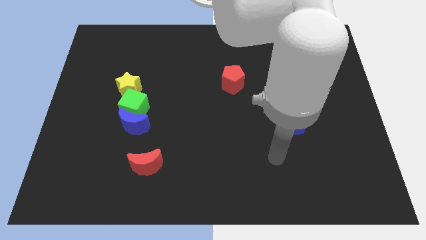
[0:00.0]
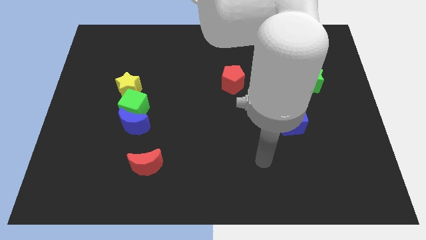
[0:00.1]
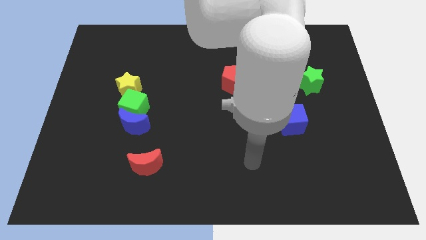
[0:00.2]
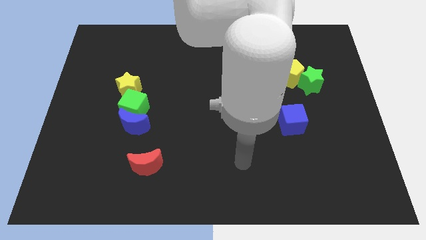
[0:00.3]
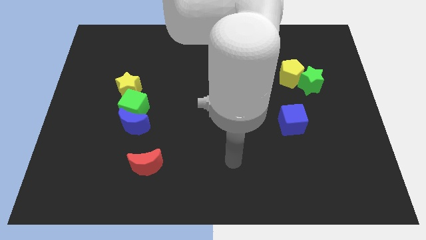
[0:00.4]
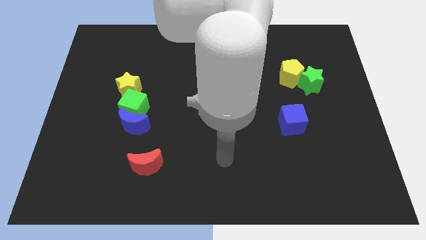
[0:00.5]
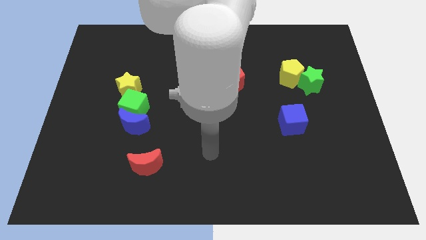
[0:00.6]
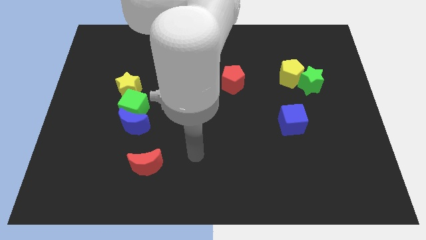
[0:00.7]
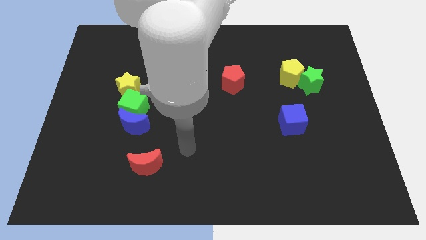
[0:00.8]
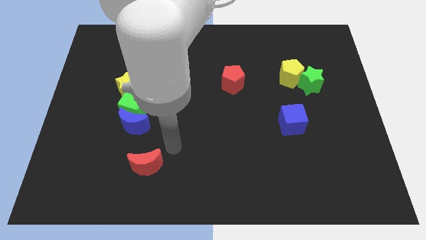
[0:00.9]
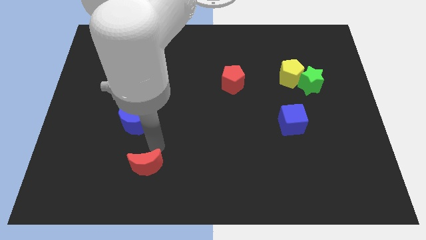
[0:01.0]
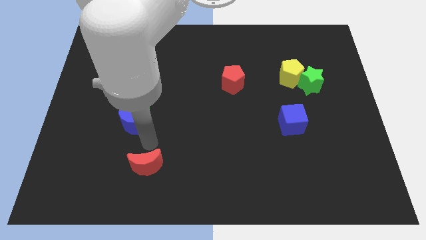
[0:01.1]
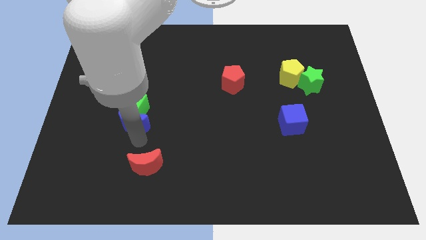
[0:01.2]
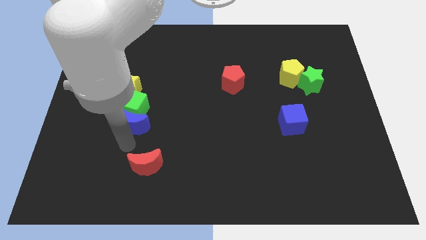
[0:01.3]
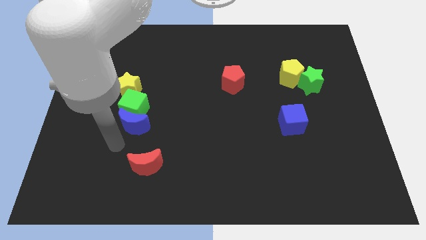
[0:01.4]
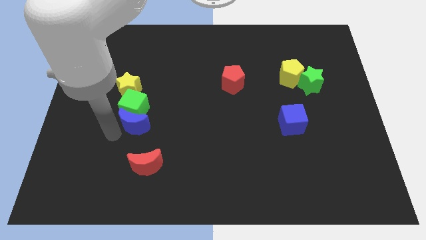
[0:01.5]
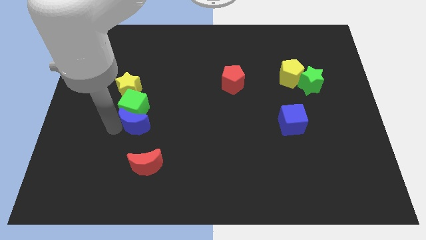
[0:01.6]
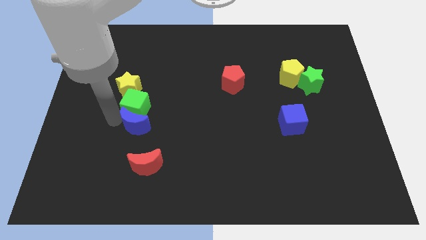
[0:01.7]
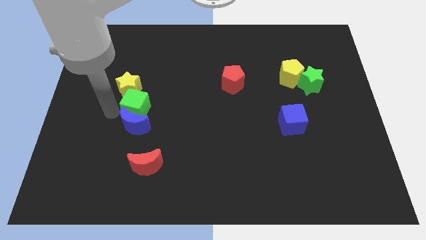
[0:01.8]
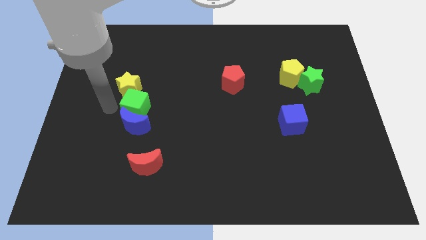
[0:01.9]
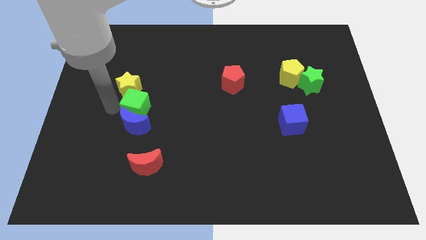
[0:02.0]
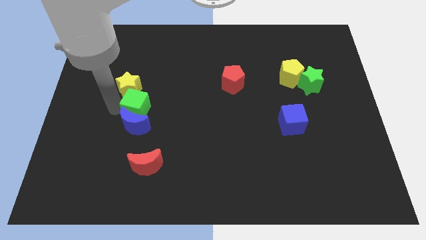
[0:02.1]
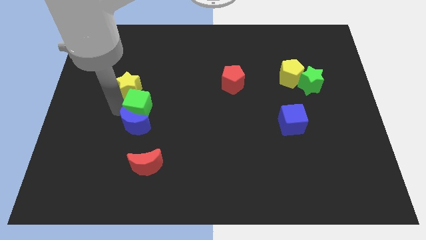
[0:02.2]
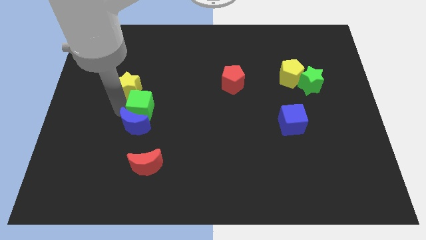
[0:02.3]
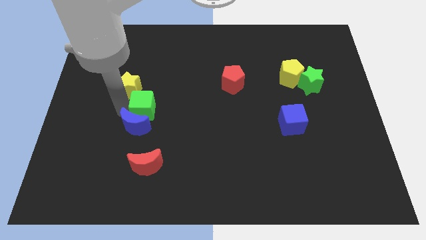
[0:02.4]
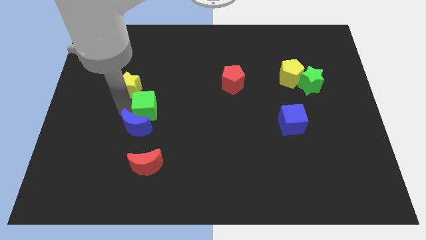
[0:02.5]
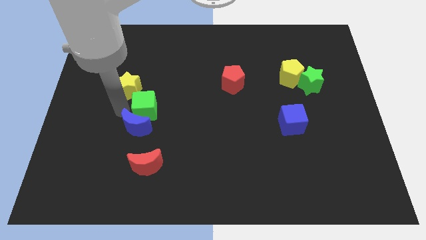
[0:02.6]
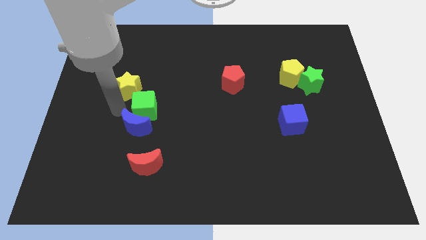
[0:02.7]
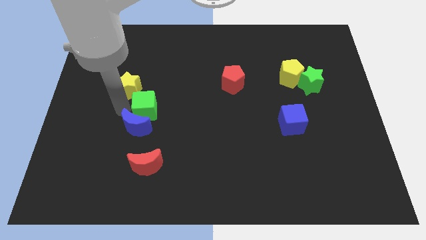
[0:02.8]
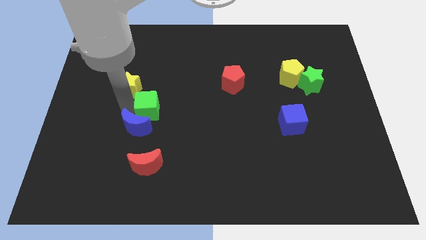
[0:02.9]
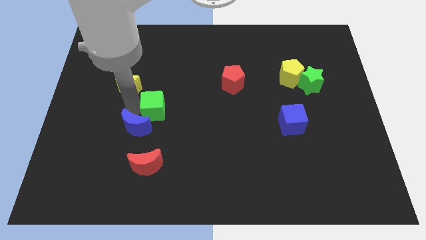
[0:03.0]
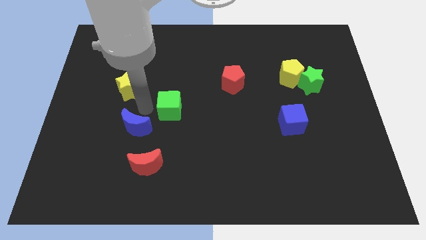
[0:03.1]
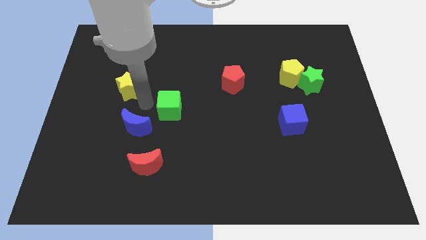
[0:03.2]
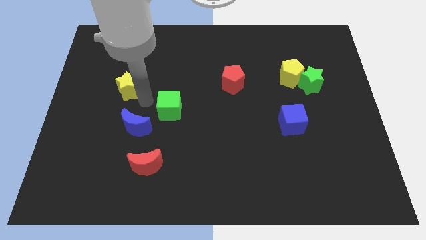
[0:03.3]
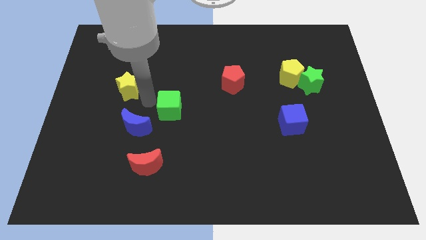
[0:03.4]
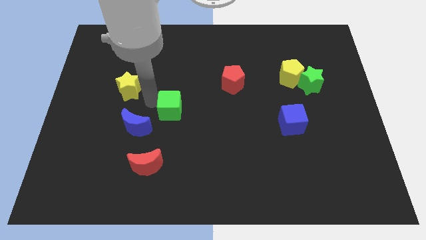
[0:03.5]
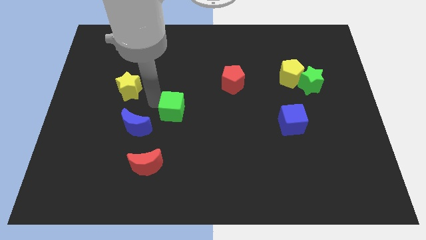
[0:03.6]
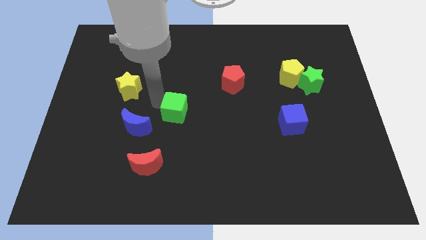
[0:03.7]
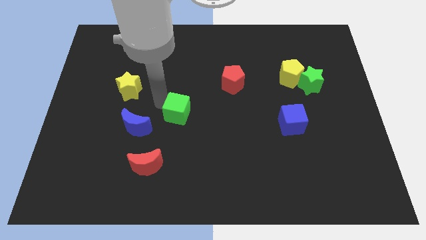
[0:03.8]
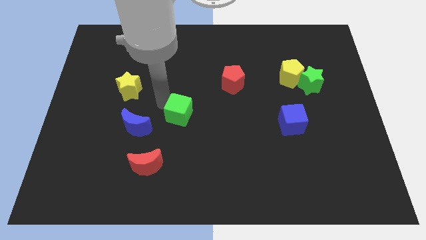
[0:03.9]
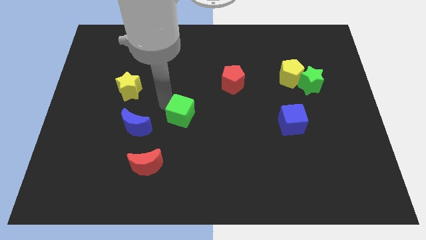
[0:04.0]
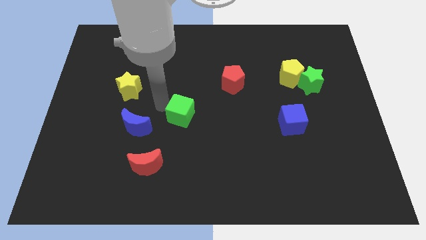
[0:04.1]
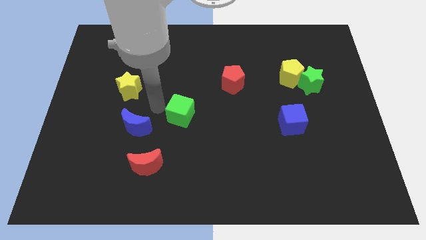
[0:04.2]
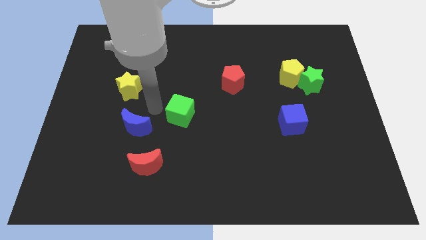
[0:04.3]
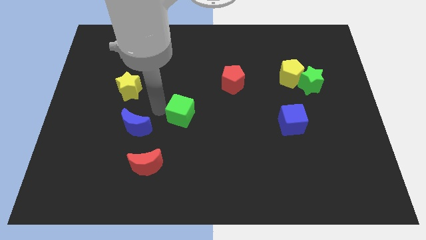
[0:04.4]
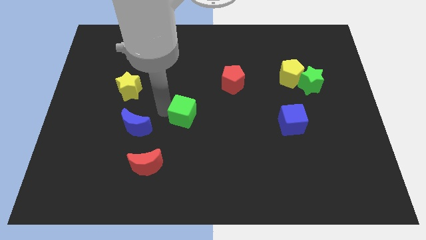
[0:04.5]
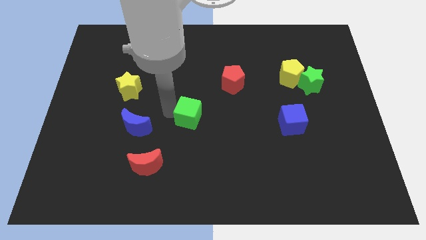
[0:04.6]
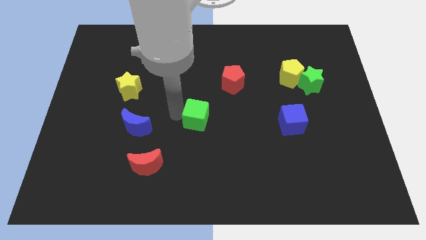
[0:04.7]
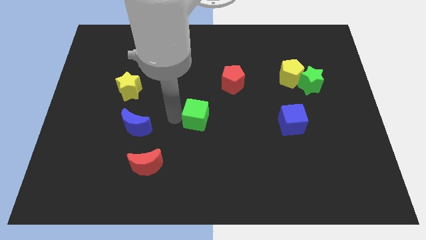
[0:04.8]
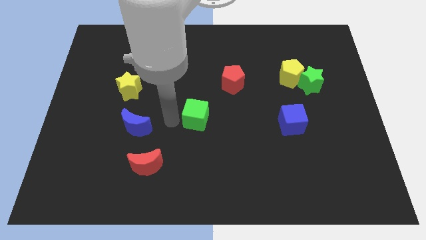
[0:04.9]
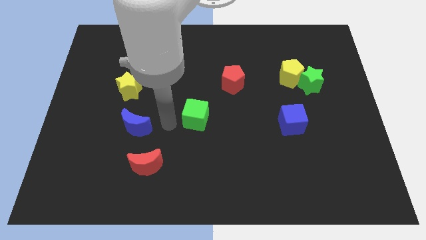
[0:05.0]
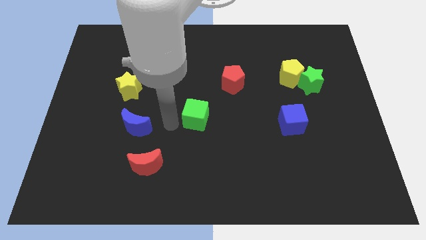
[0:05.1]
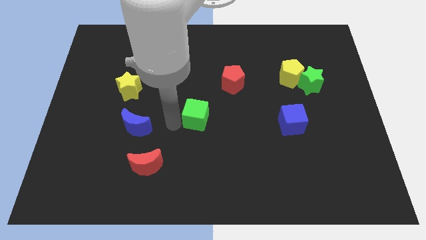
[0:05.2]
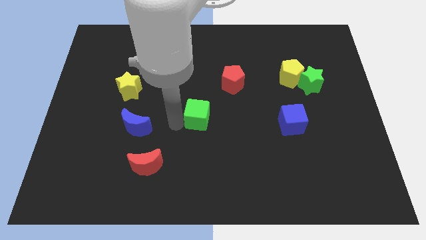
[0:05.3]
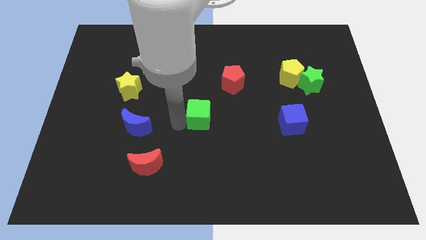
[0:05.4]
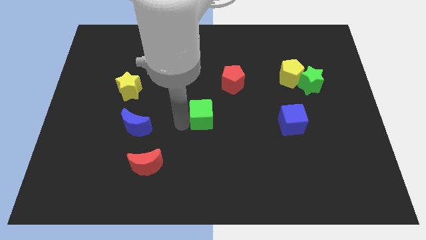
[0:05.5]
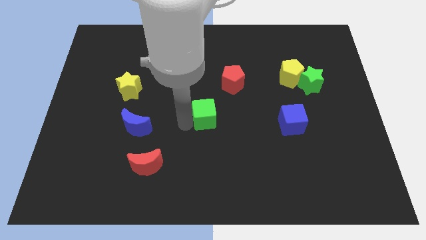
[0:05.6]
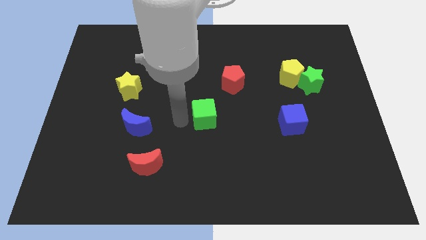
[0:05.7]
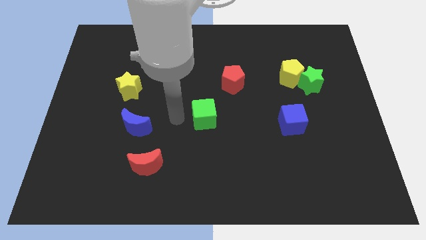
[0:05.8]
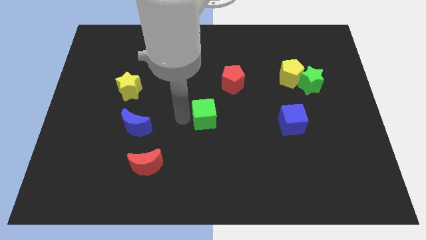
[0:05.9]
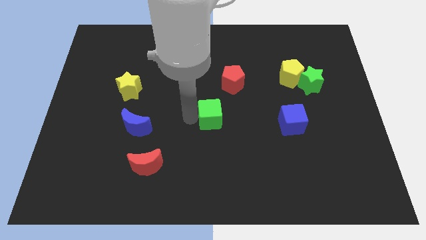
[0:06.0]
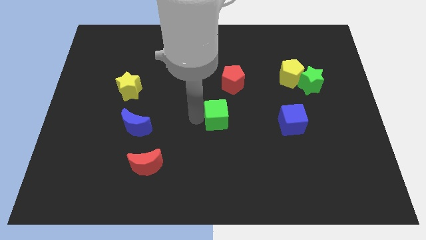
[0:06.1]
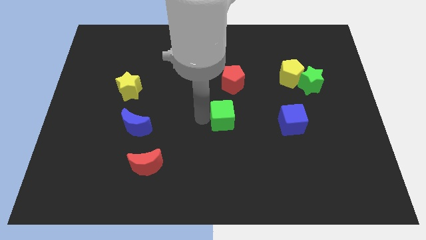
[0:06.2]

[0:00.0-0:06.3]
move the green cube to the right

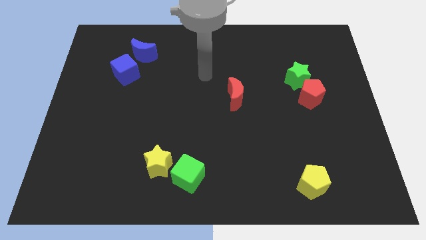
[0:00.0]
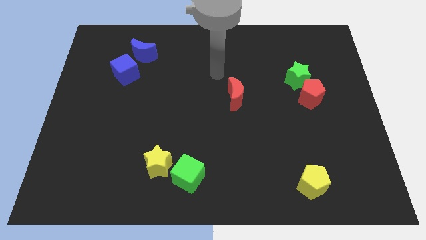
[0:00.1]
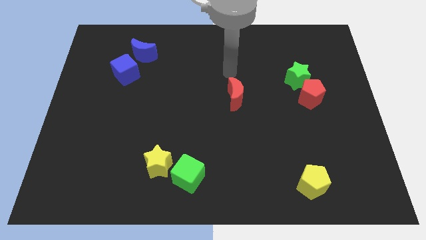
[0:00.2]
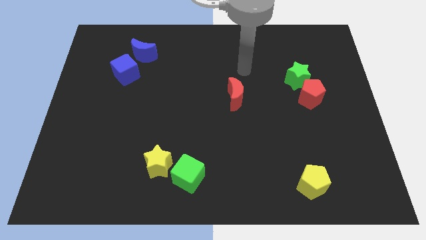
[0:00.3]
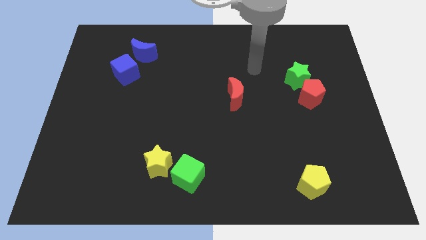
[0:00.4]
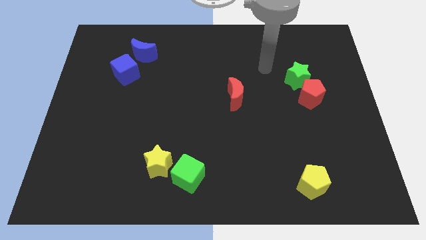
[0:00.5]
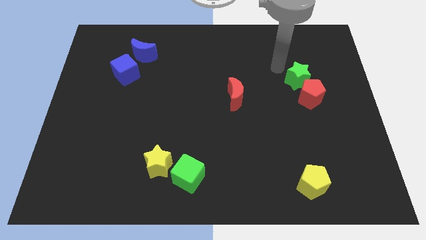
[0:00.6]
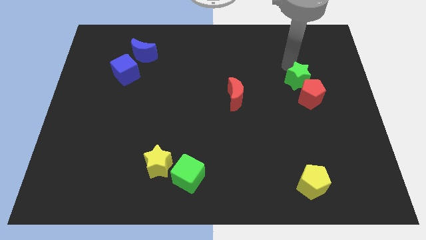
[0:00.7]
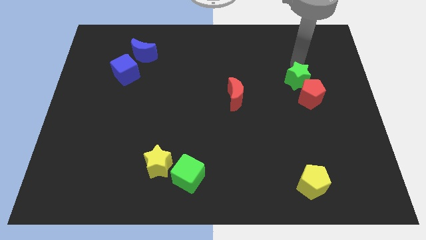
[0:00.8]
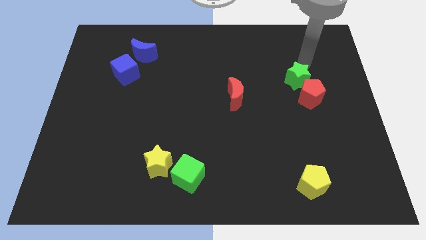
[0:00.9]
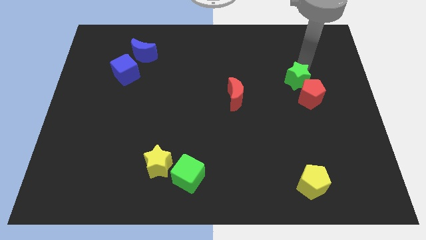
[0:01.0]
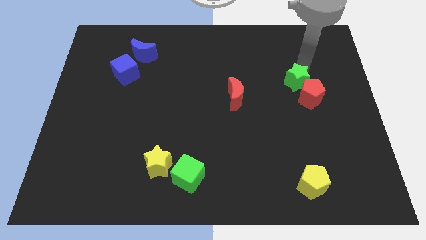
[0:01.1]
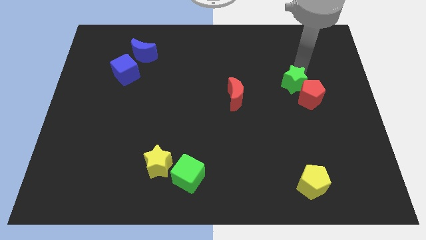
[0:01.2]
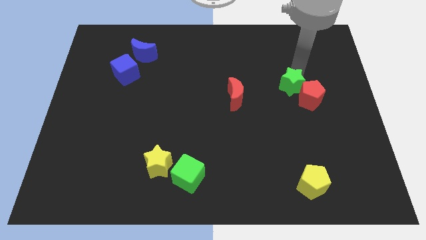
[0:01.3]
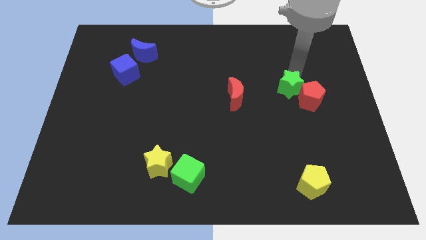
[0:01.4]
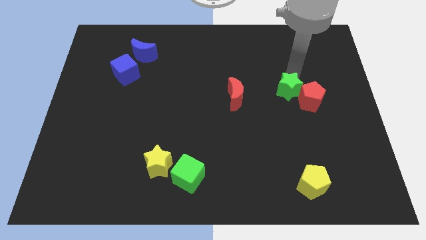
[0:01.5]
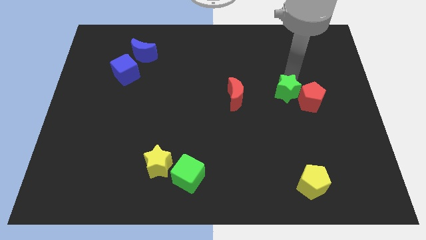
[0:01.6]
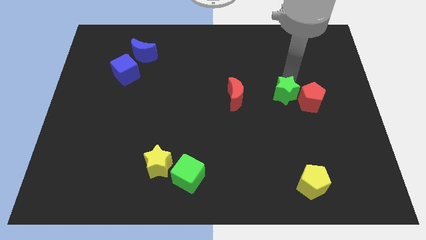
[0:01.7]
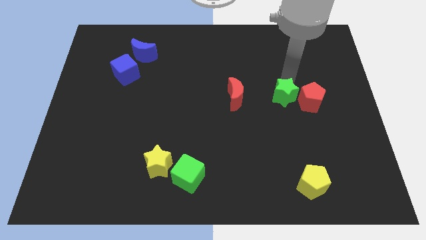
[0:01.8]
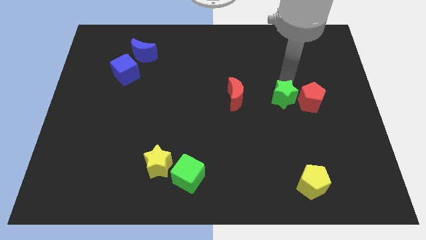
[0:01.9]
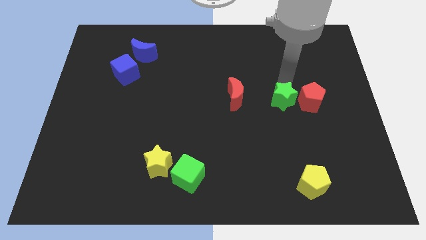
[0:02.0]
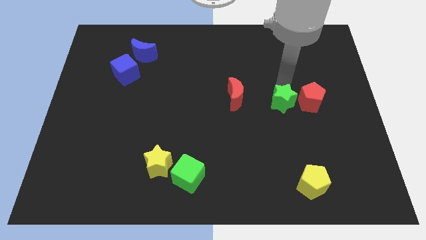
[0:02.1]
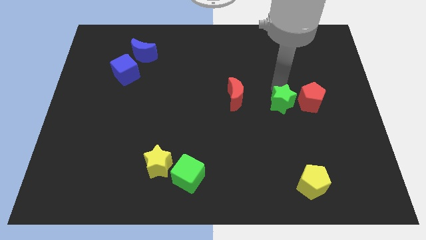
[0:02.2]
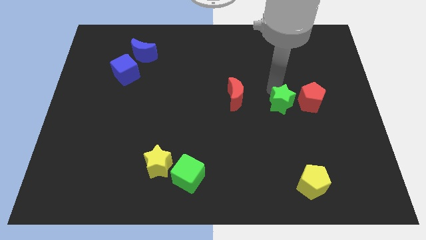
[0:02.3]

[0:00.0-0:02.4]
slide the green star down a bit
